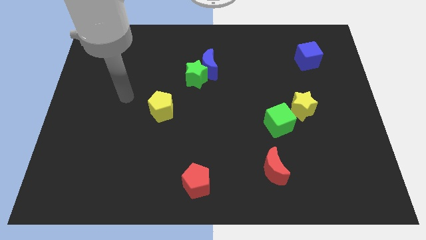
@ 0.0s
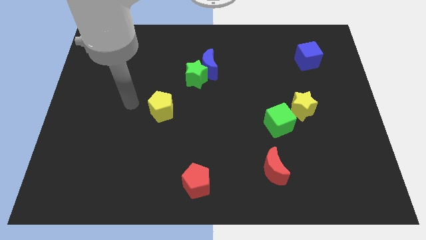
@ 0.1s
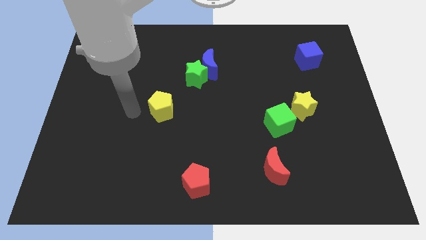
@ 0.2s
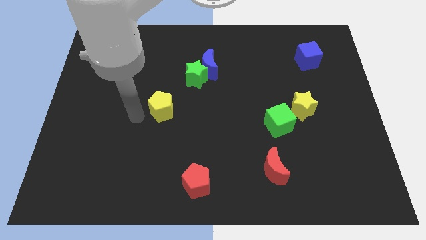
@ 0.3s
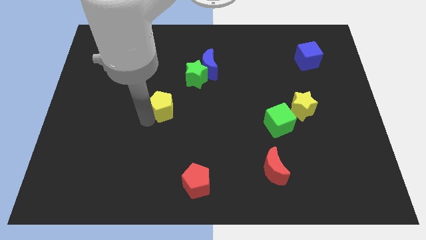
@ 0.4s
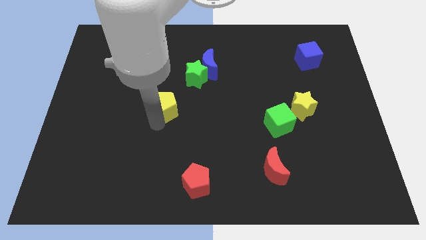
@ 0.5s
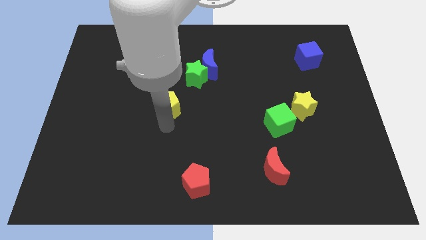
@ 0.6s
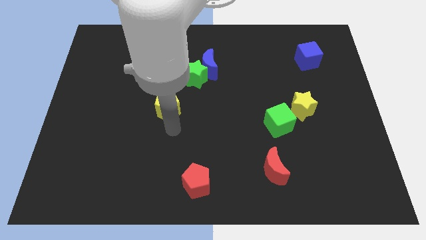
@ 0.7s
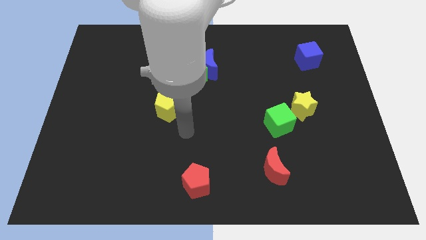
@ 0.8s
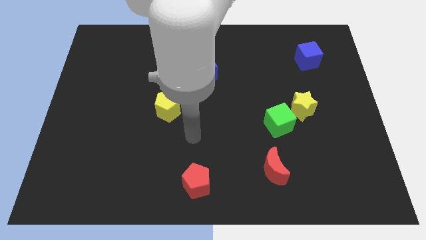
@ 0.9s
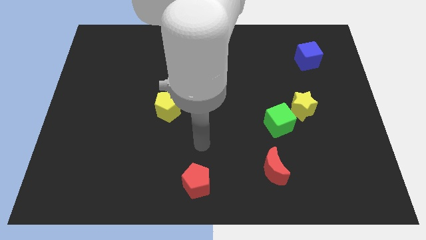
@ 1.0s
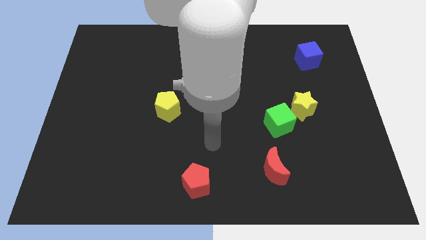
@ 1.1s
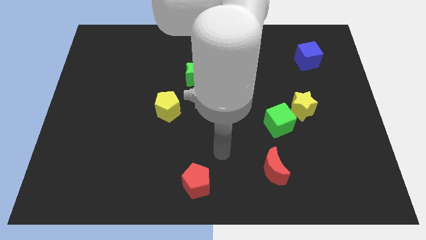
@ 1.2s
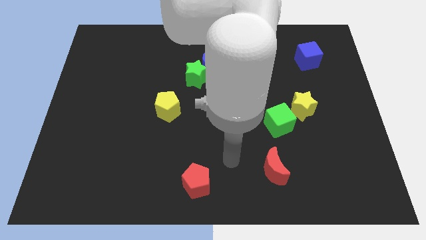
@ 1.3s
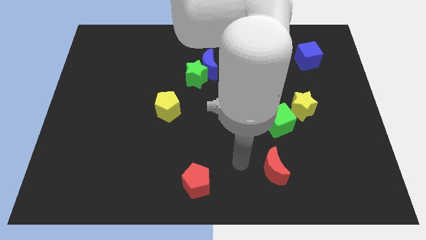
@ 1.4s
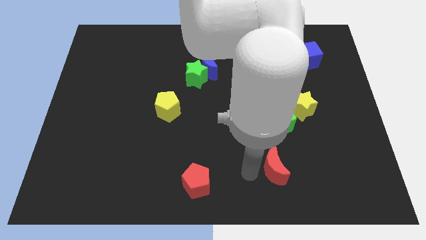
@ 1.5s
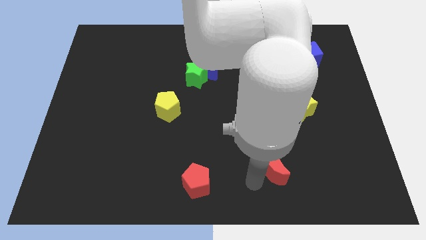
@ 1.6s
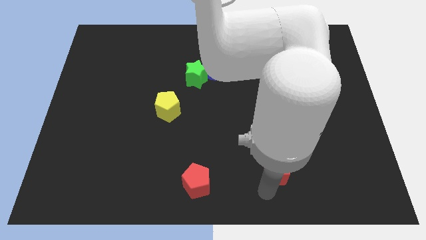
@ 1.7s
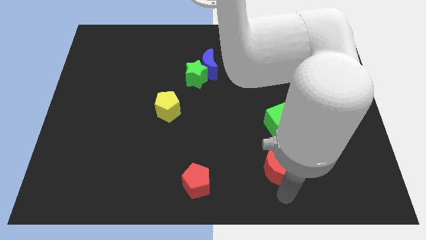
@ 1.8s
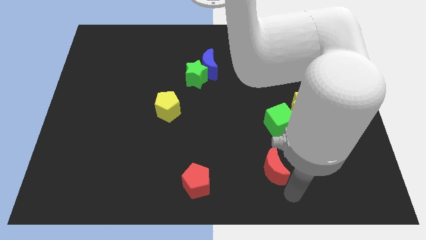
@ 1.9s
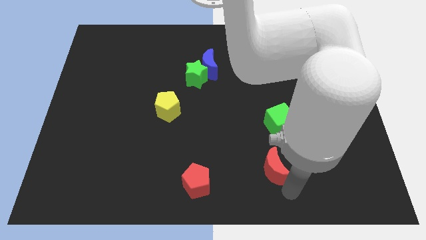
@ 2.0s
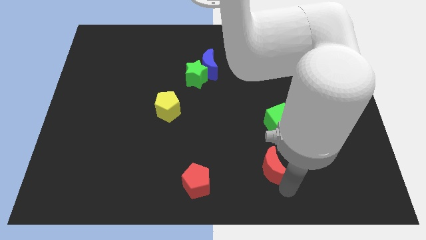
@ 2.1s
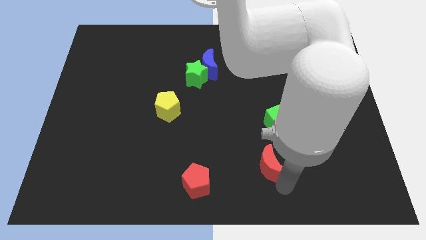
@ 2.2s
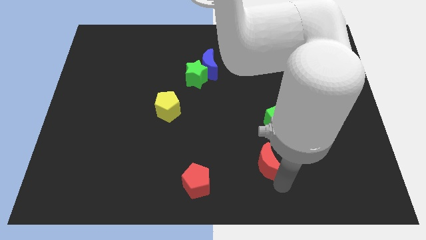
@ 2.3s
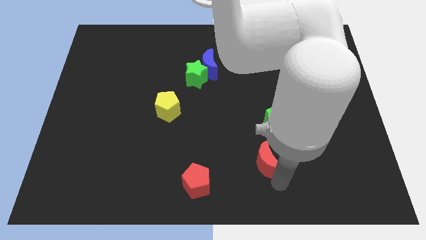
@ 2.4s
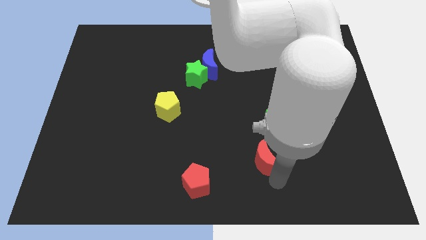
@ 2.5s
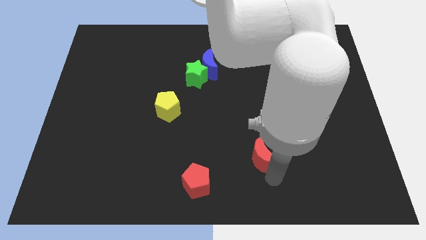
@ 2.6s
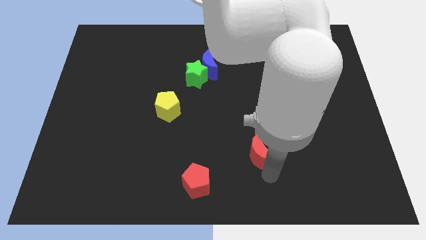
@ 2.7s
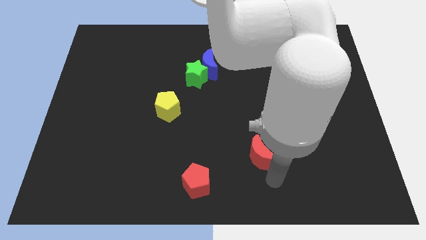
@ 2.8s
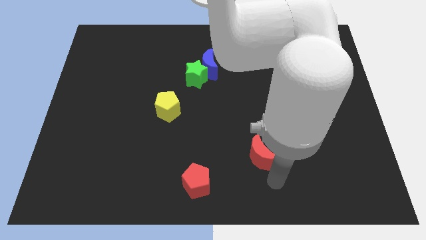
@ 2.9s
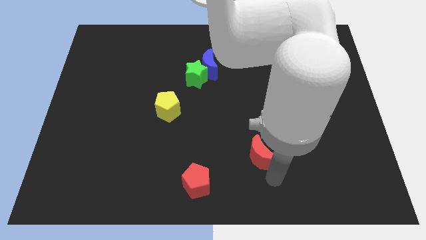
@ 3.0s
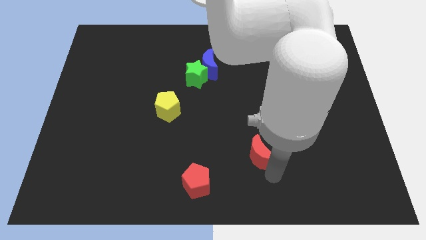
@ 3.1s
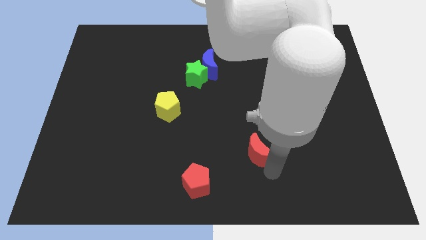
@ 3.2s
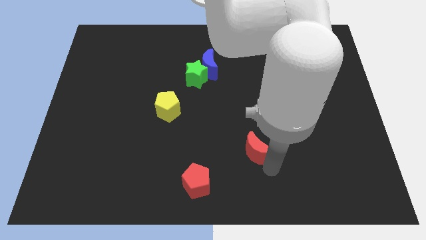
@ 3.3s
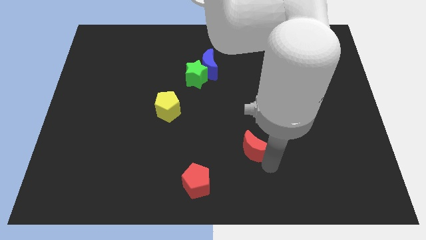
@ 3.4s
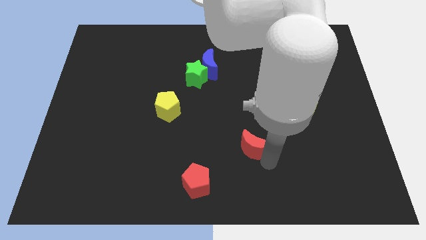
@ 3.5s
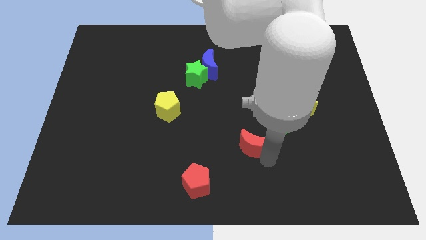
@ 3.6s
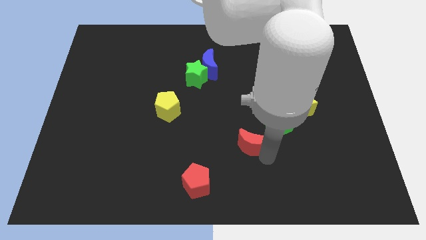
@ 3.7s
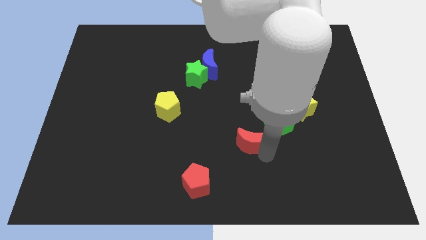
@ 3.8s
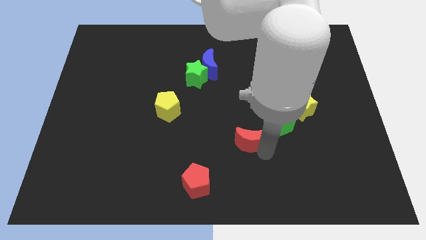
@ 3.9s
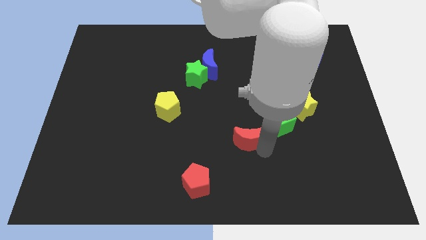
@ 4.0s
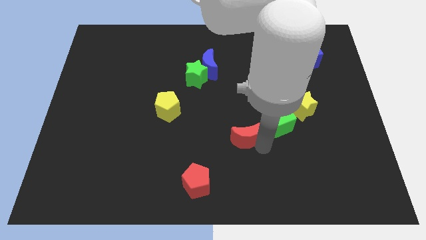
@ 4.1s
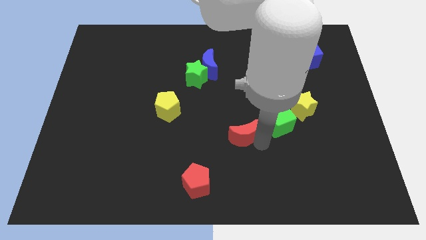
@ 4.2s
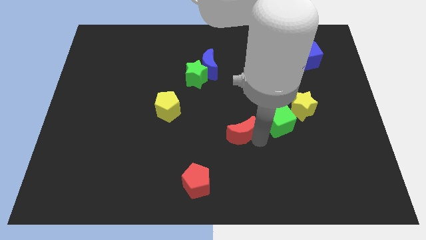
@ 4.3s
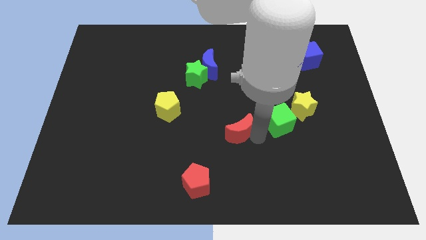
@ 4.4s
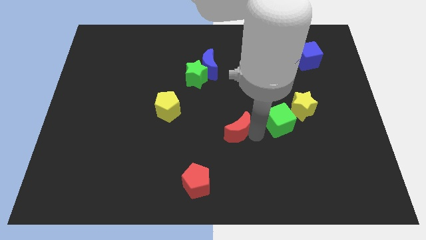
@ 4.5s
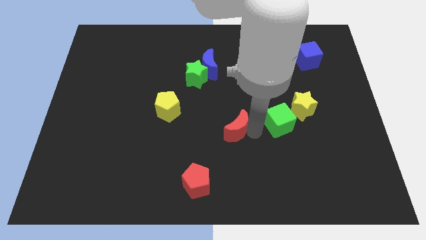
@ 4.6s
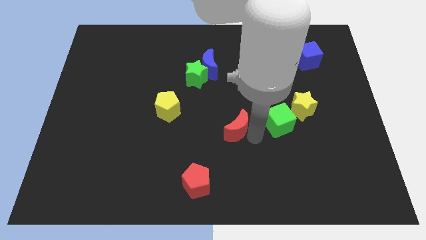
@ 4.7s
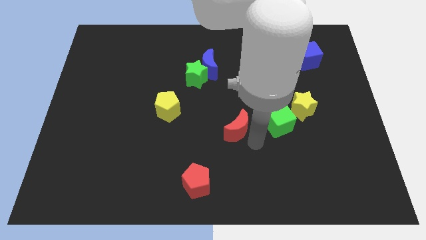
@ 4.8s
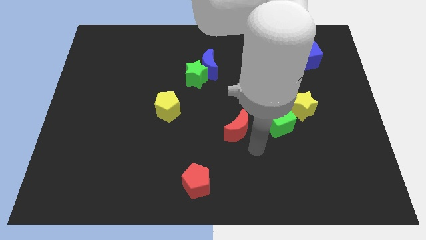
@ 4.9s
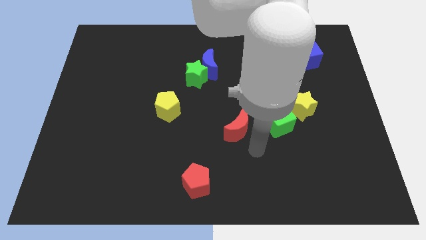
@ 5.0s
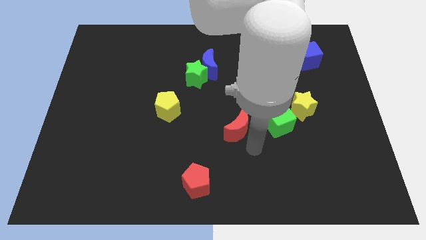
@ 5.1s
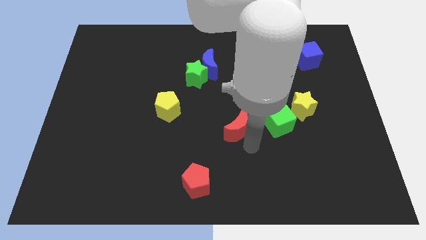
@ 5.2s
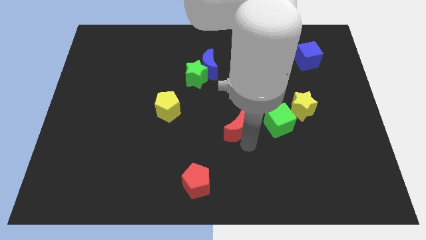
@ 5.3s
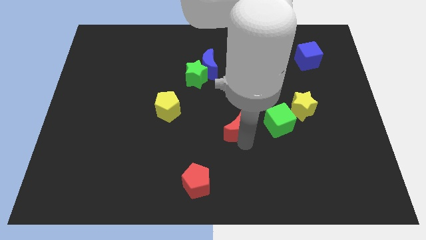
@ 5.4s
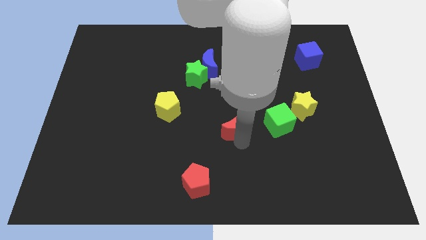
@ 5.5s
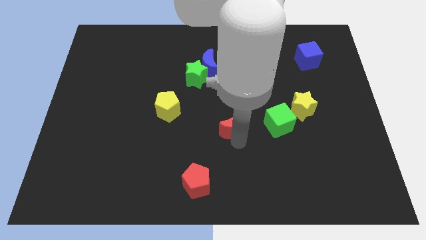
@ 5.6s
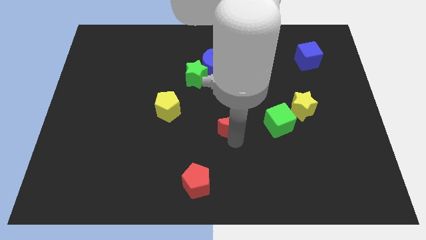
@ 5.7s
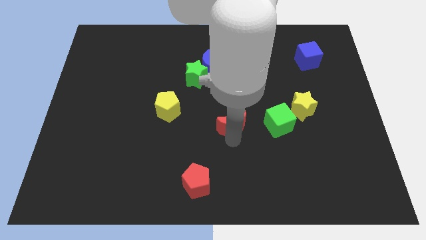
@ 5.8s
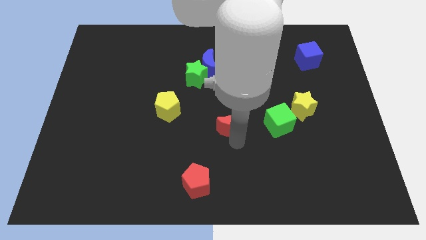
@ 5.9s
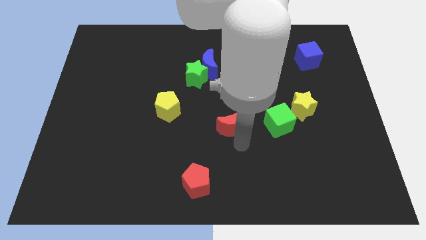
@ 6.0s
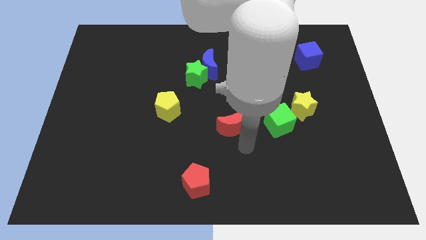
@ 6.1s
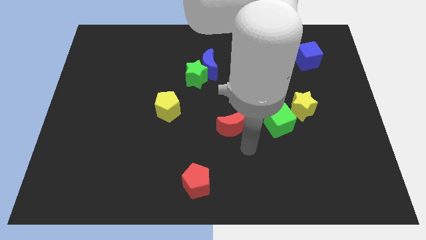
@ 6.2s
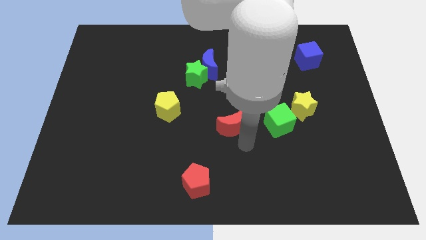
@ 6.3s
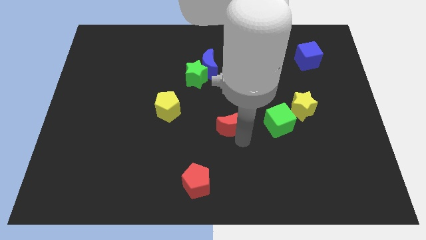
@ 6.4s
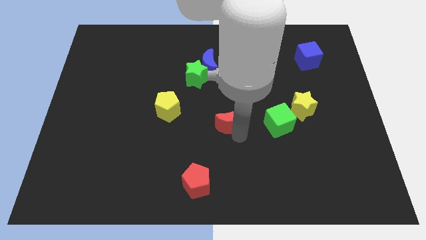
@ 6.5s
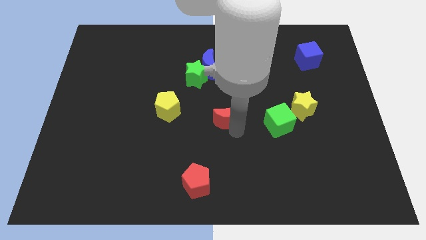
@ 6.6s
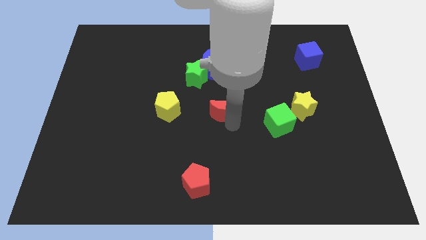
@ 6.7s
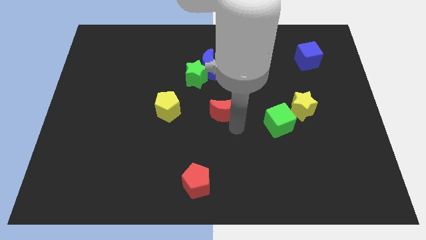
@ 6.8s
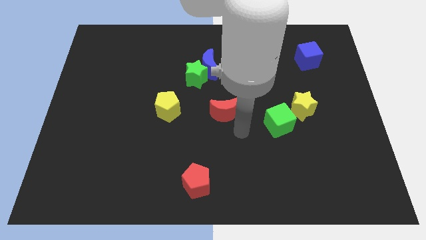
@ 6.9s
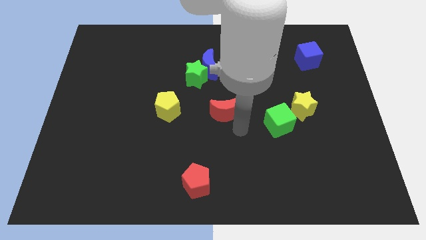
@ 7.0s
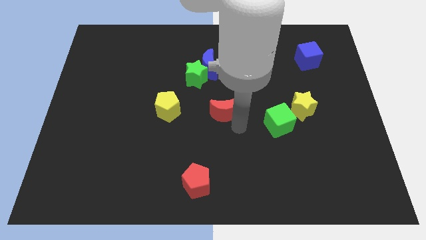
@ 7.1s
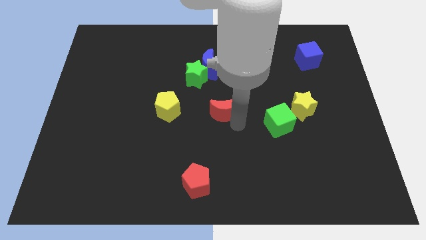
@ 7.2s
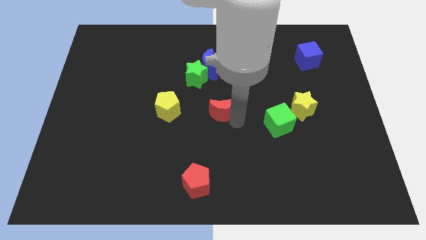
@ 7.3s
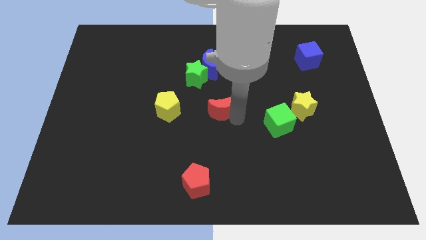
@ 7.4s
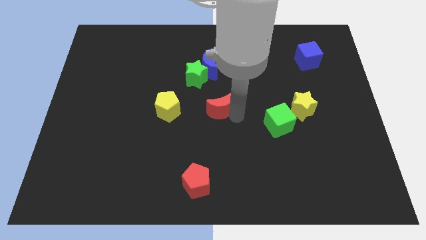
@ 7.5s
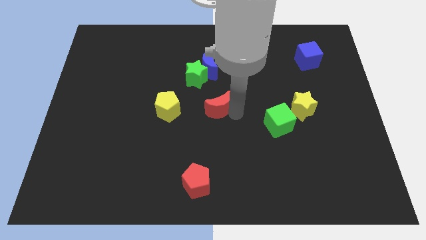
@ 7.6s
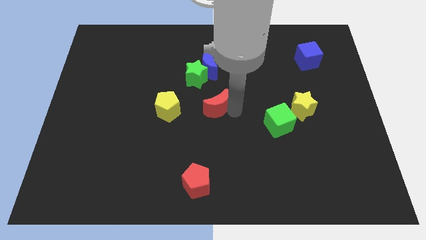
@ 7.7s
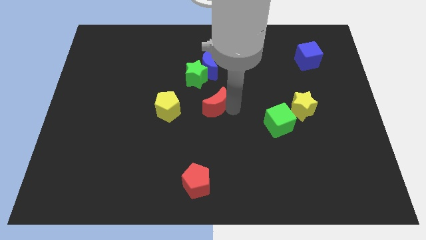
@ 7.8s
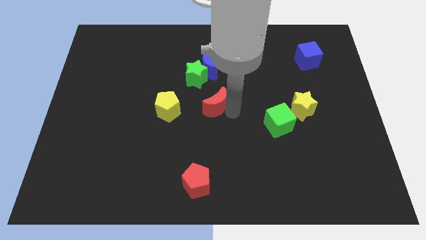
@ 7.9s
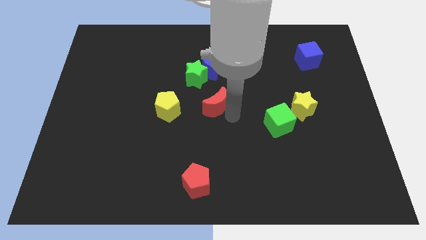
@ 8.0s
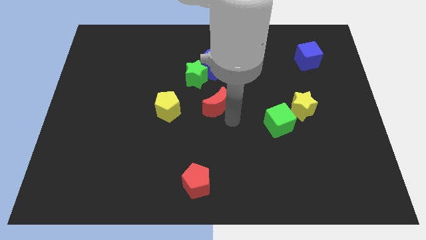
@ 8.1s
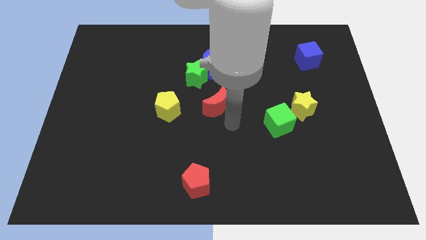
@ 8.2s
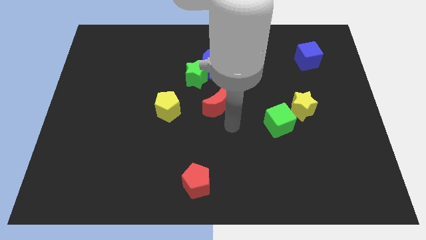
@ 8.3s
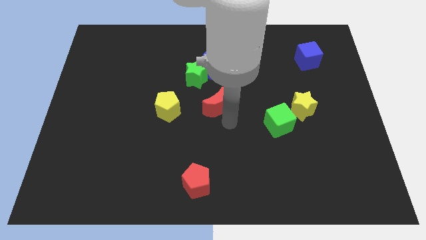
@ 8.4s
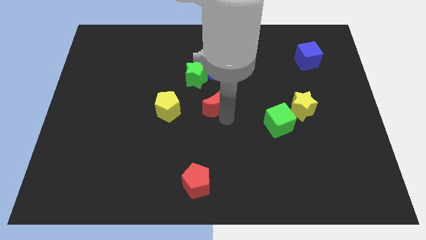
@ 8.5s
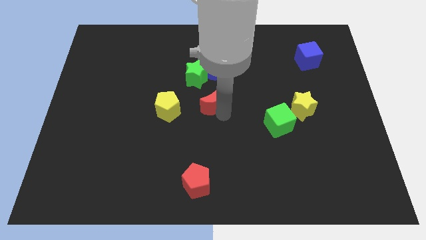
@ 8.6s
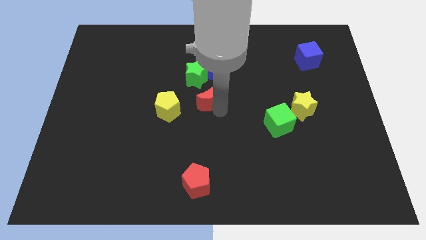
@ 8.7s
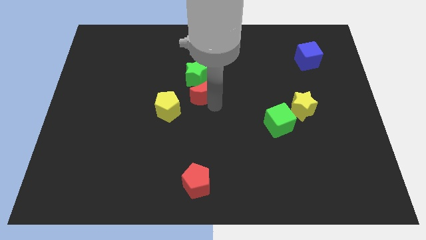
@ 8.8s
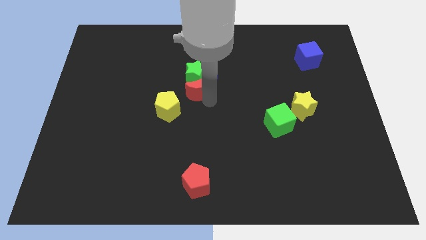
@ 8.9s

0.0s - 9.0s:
push the red moon to the green star
